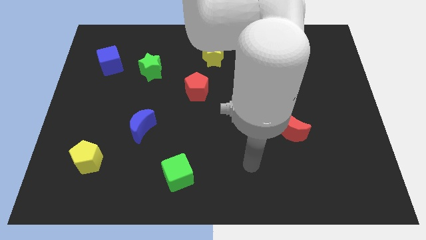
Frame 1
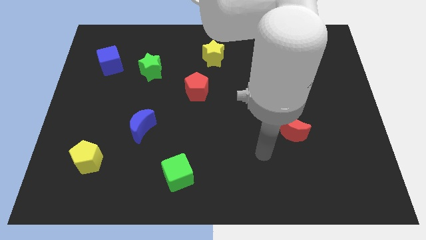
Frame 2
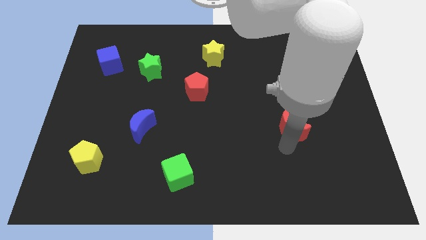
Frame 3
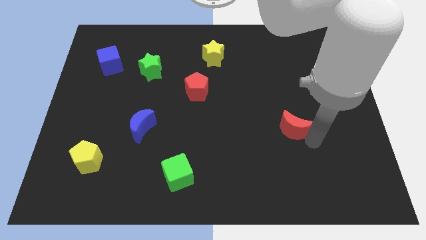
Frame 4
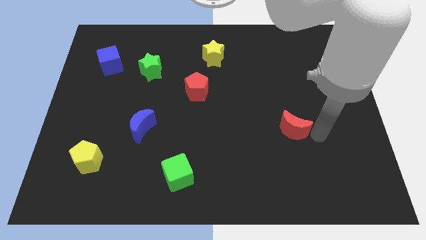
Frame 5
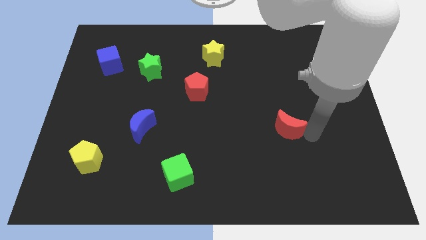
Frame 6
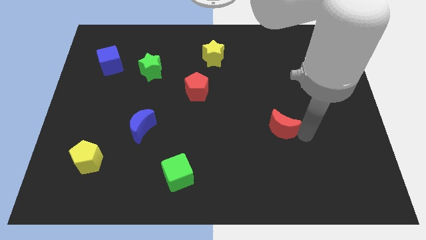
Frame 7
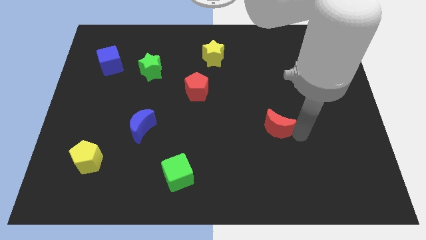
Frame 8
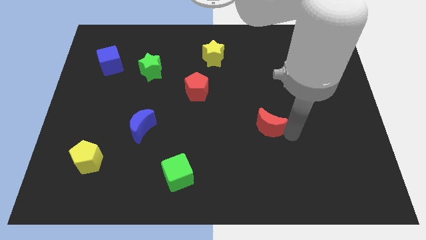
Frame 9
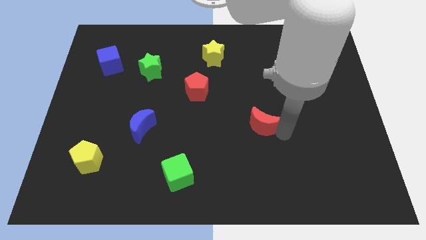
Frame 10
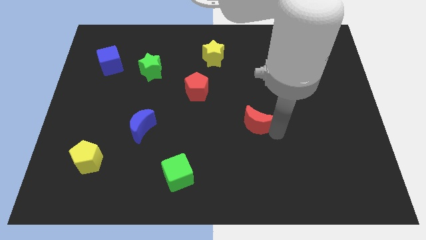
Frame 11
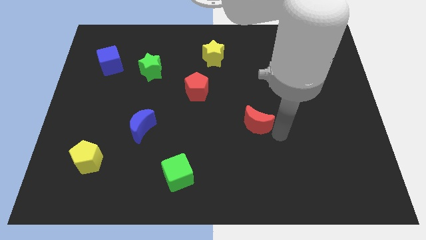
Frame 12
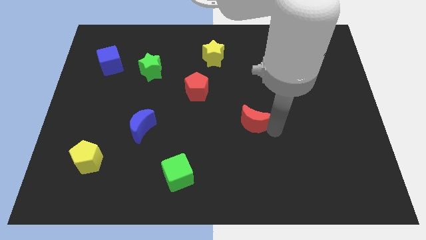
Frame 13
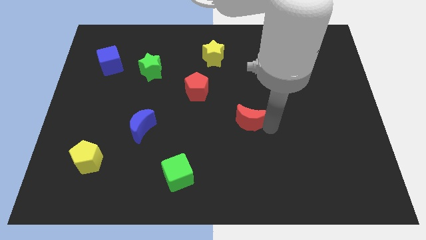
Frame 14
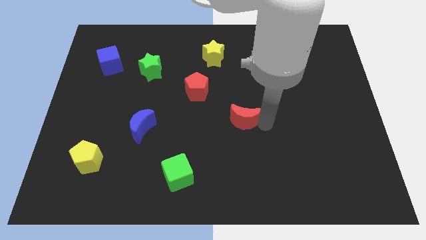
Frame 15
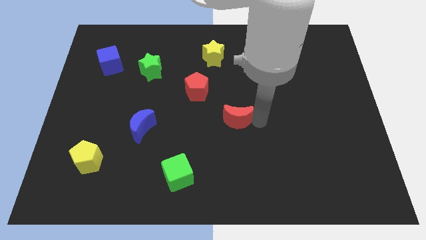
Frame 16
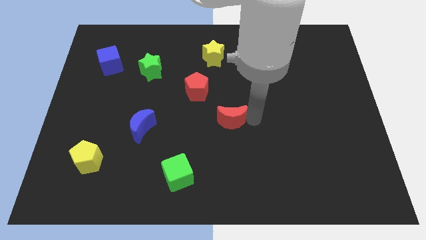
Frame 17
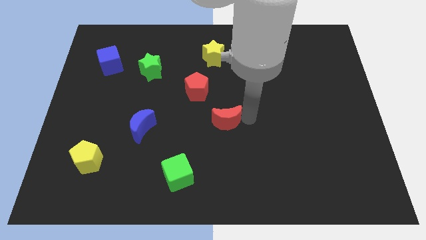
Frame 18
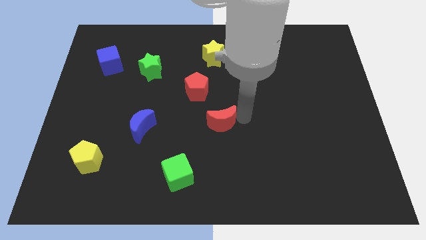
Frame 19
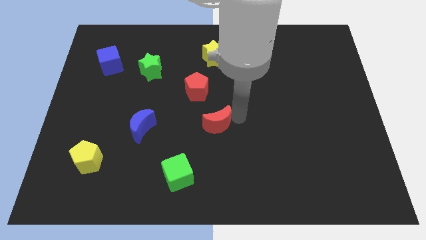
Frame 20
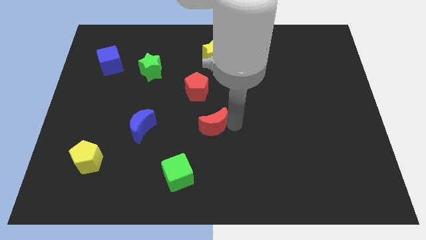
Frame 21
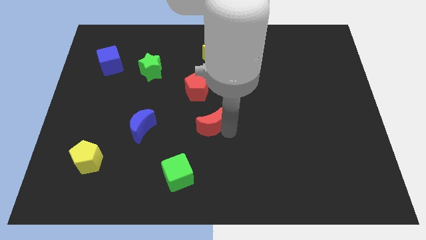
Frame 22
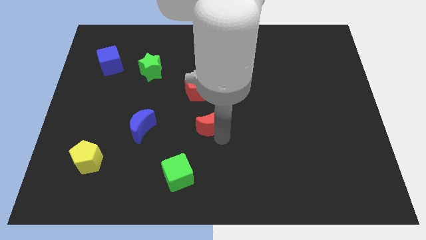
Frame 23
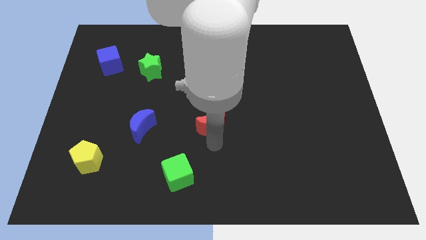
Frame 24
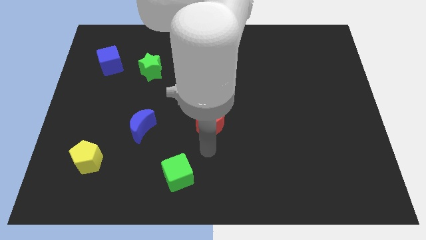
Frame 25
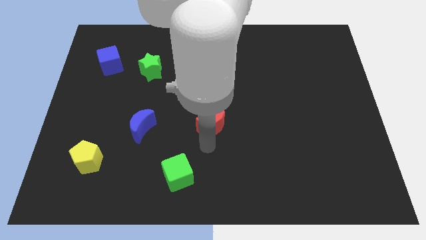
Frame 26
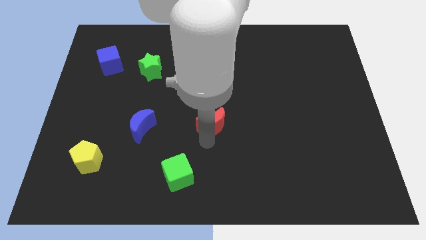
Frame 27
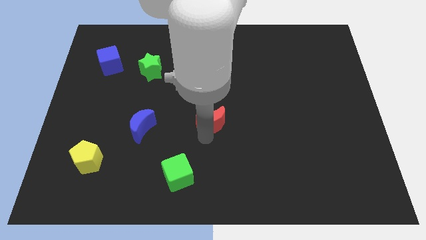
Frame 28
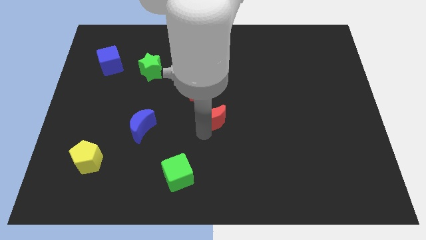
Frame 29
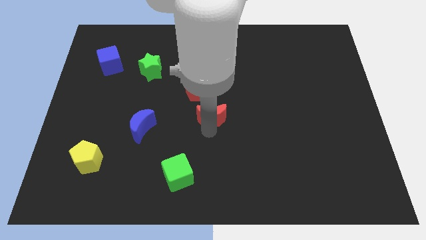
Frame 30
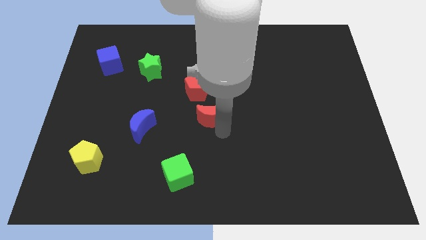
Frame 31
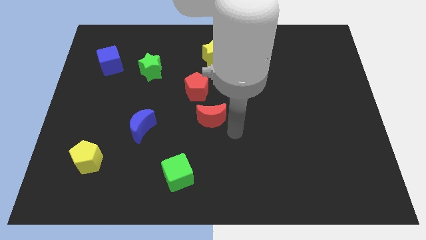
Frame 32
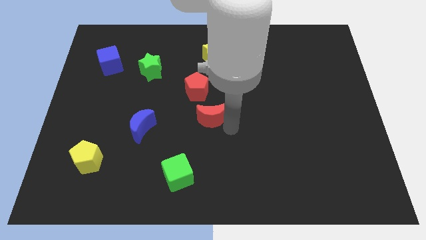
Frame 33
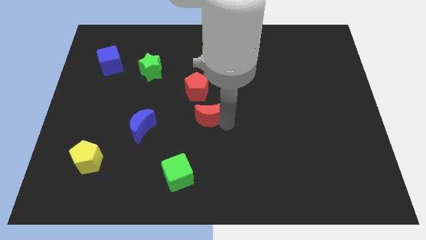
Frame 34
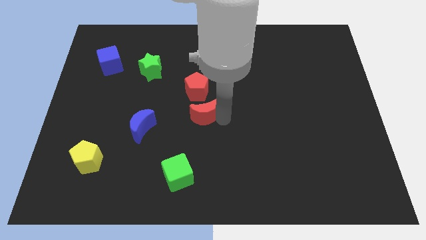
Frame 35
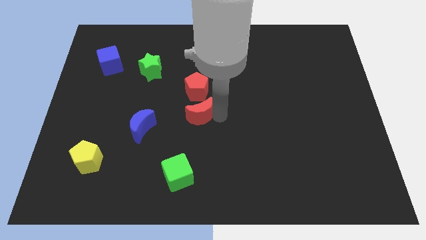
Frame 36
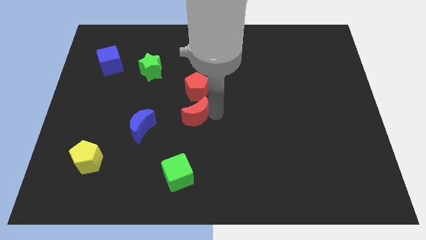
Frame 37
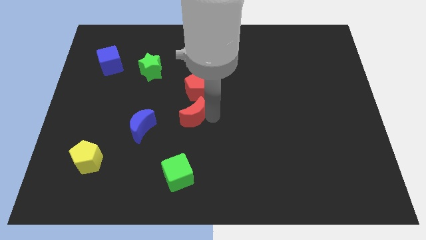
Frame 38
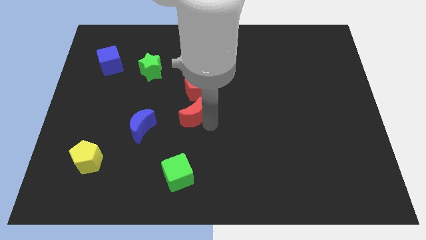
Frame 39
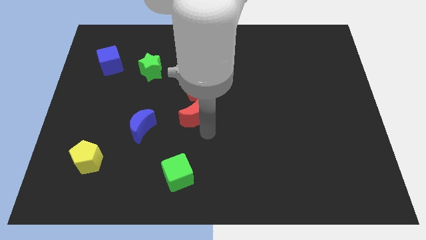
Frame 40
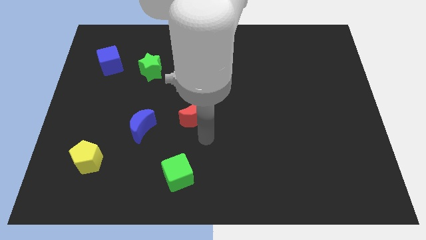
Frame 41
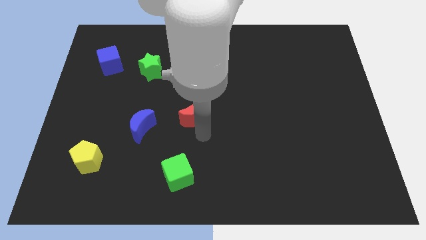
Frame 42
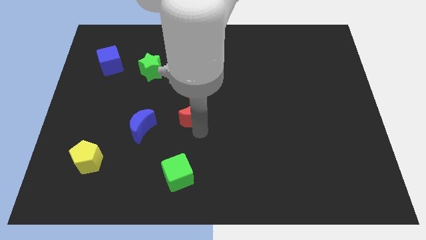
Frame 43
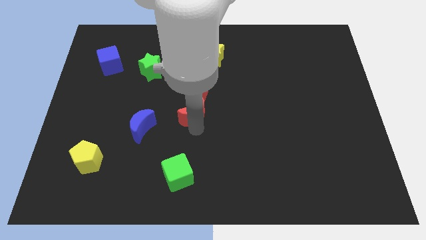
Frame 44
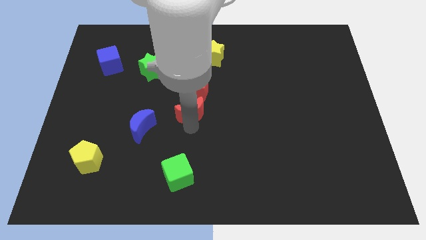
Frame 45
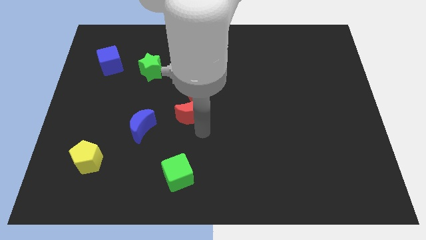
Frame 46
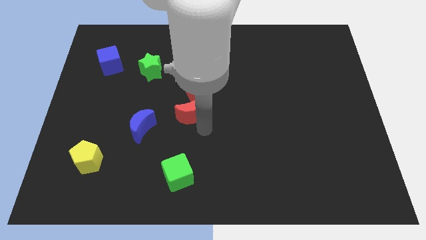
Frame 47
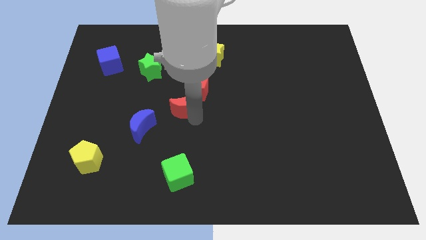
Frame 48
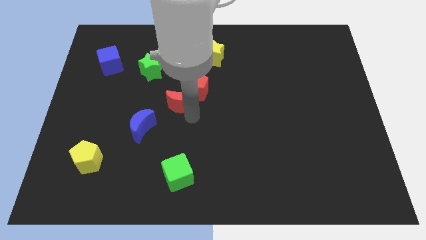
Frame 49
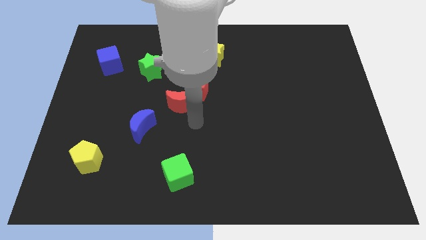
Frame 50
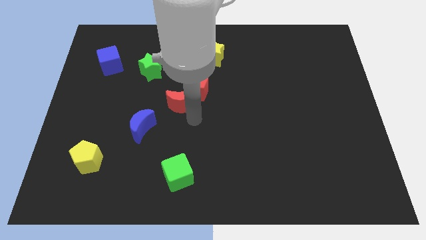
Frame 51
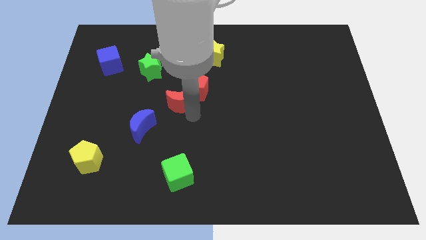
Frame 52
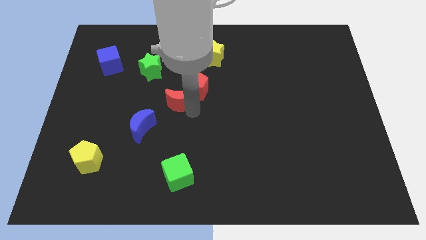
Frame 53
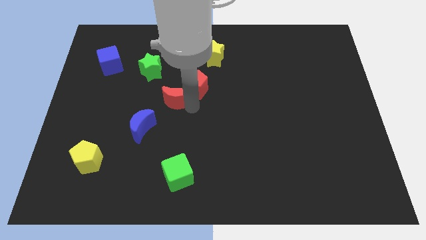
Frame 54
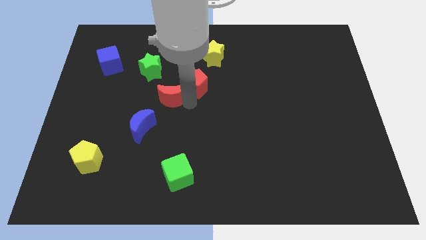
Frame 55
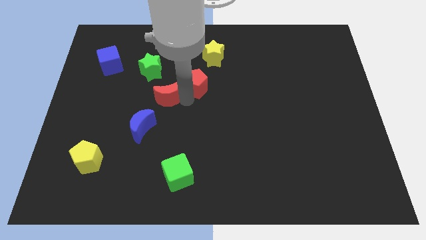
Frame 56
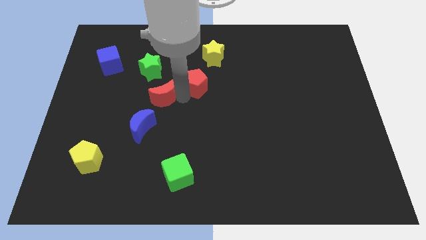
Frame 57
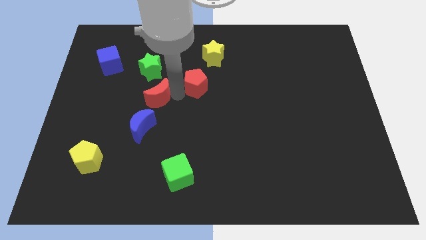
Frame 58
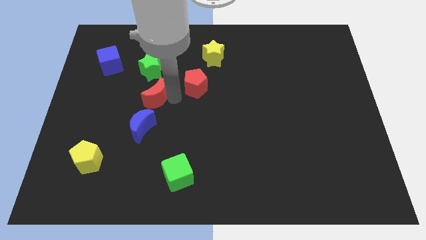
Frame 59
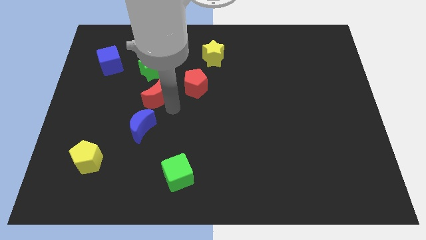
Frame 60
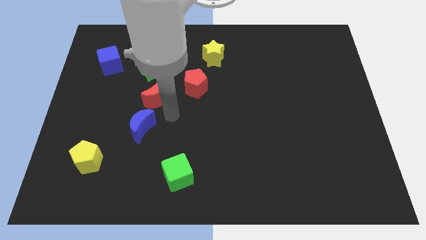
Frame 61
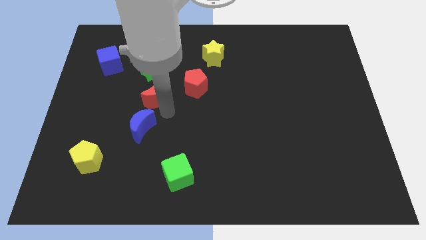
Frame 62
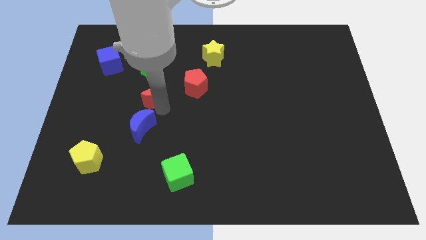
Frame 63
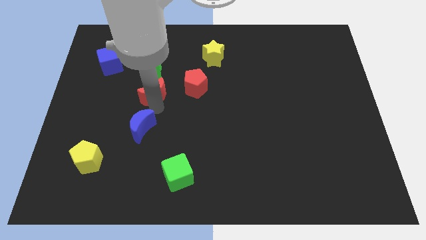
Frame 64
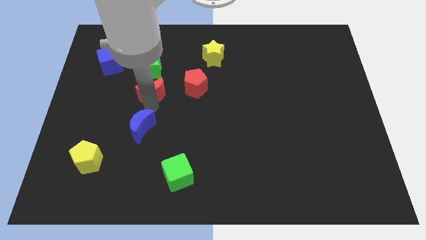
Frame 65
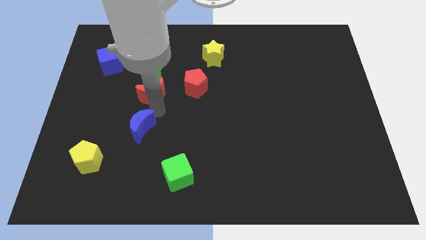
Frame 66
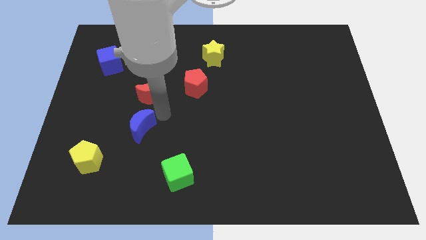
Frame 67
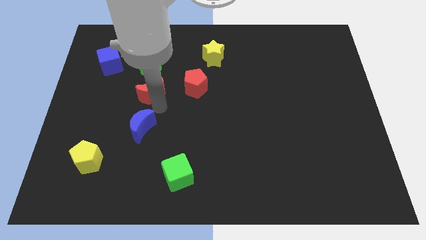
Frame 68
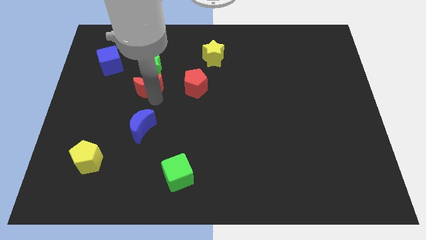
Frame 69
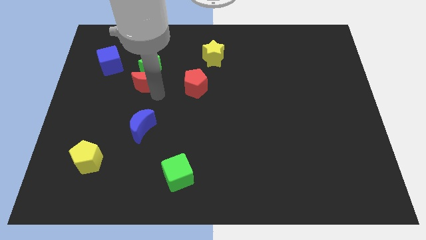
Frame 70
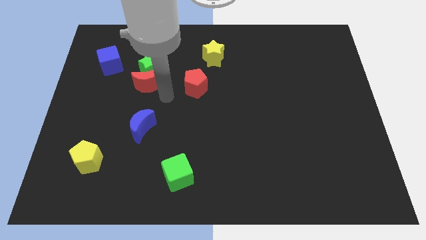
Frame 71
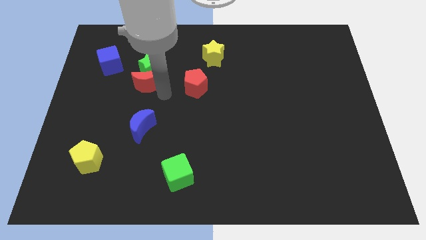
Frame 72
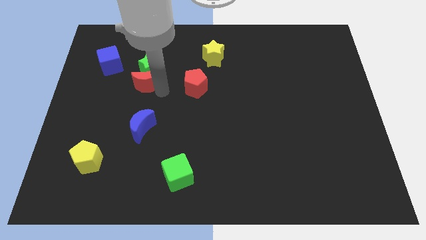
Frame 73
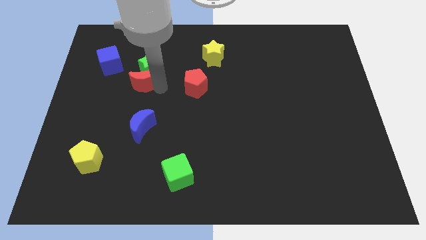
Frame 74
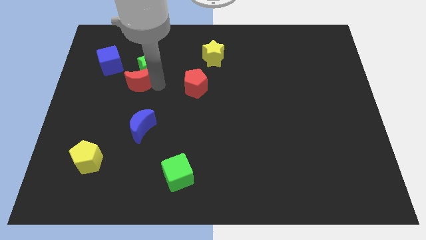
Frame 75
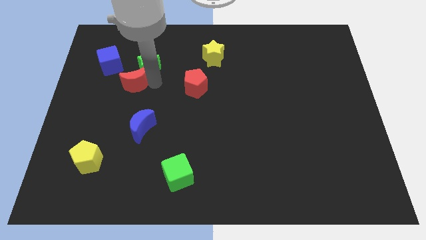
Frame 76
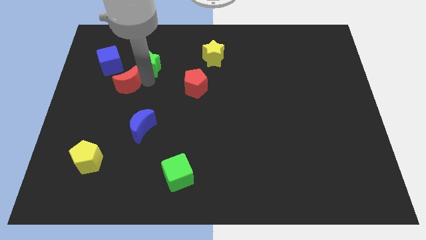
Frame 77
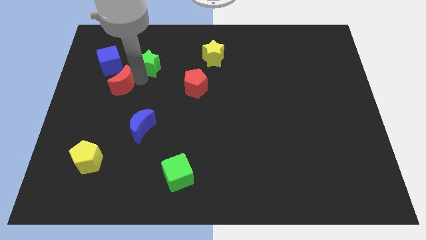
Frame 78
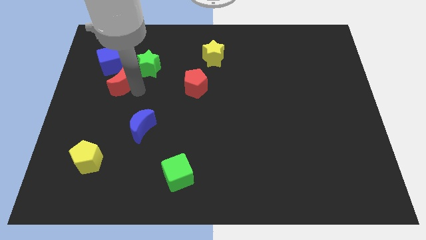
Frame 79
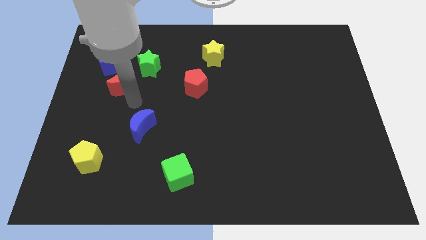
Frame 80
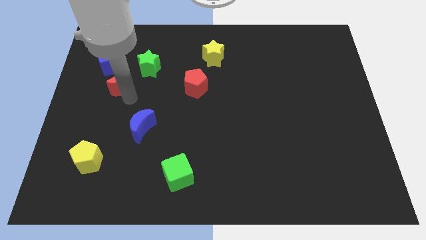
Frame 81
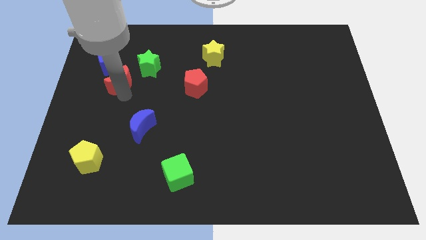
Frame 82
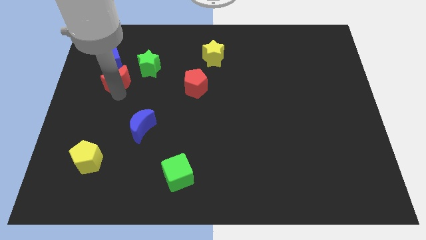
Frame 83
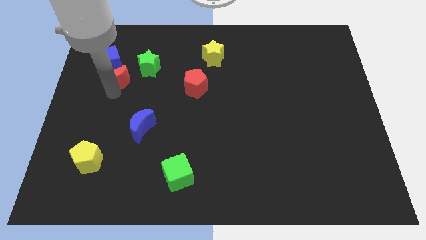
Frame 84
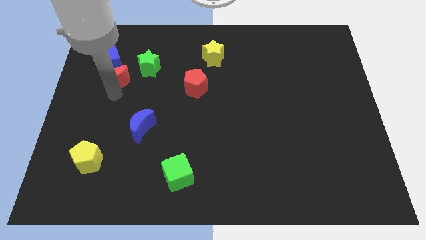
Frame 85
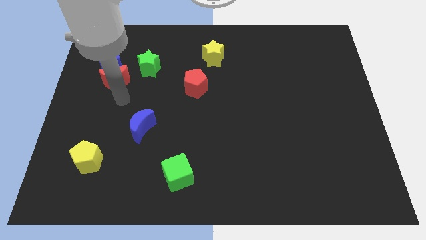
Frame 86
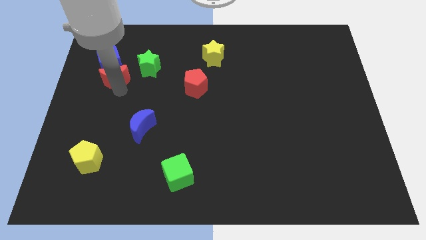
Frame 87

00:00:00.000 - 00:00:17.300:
push the red moon towards the blue cube
